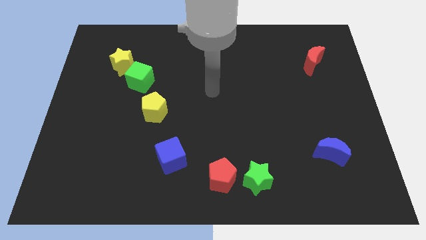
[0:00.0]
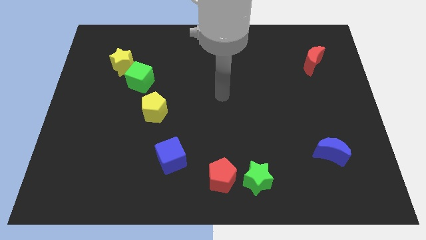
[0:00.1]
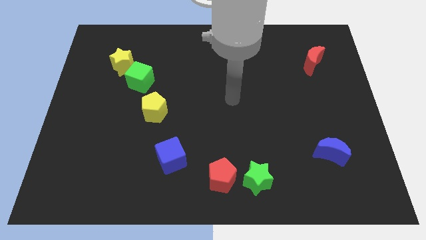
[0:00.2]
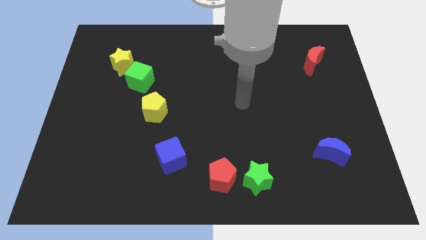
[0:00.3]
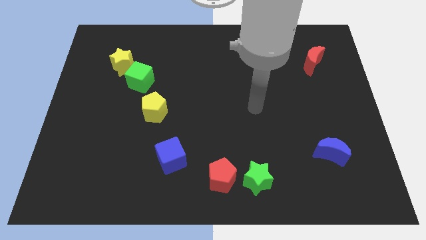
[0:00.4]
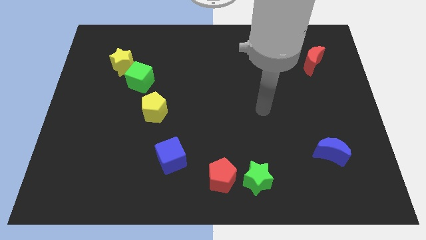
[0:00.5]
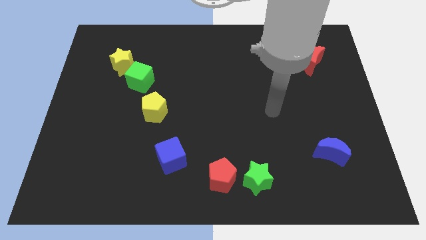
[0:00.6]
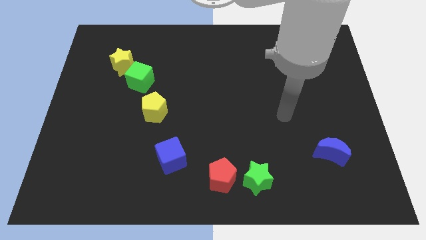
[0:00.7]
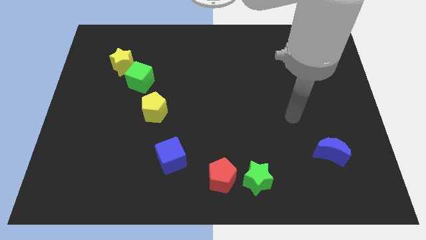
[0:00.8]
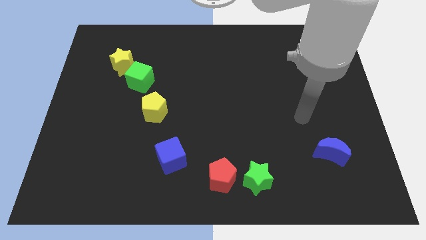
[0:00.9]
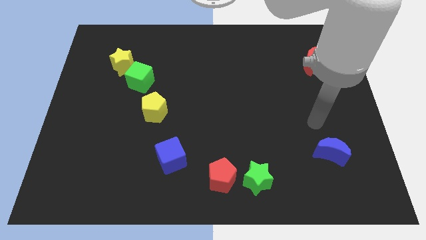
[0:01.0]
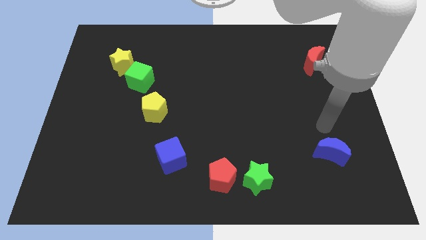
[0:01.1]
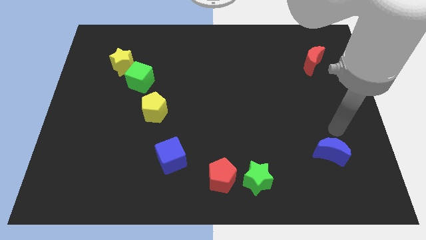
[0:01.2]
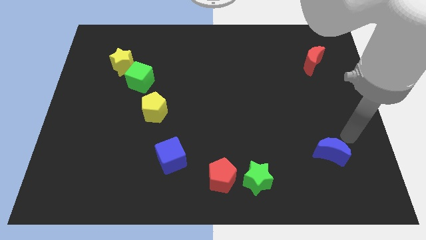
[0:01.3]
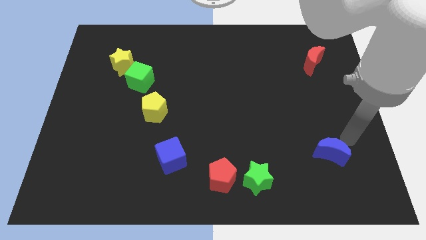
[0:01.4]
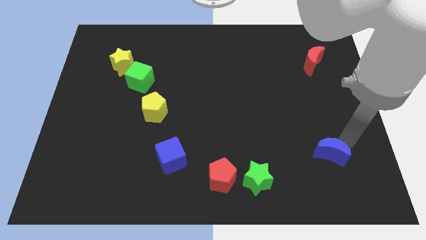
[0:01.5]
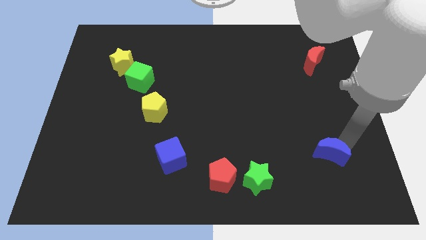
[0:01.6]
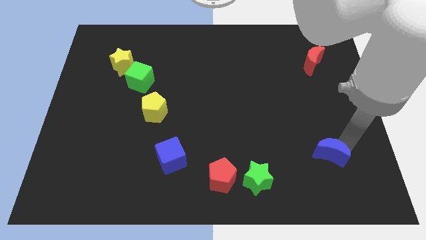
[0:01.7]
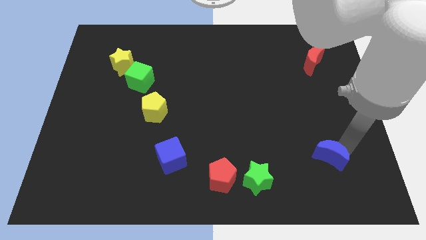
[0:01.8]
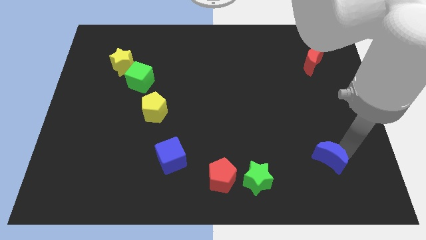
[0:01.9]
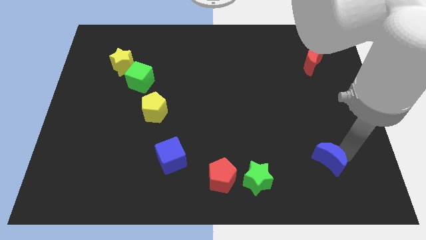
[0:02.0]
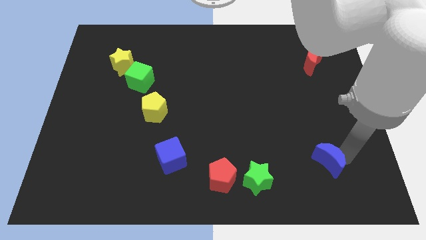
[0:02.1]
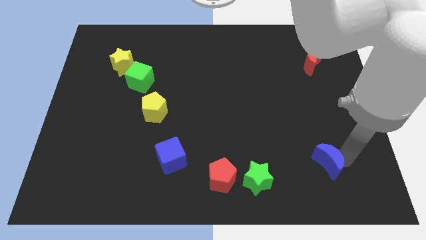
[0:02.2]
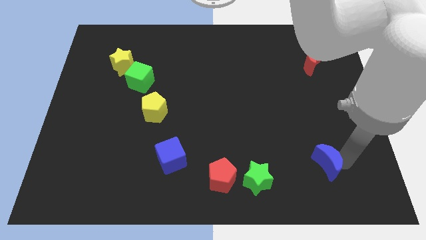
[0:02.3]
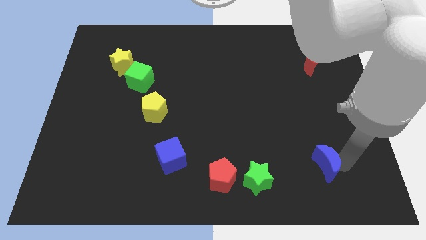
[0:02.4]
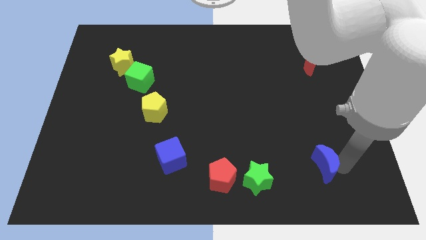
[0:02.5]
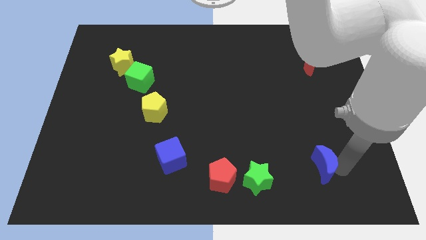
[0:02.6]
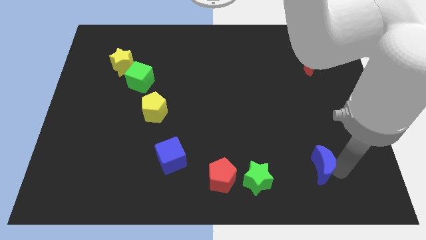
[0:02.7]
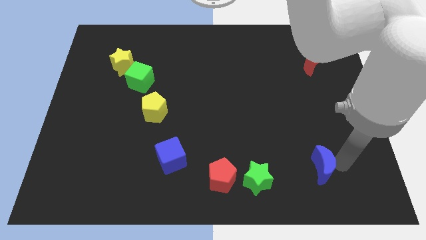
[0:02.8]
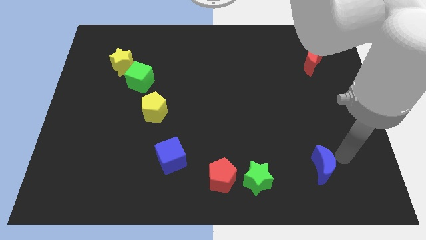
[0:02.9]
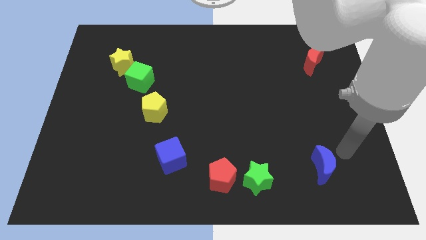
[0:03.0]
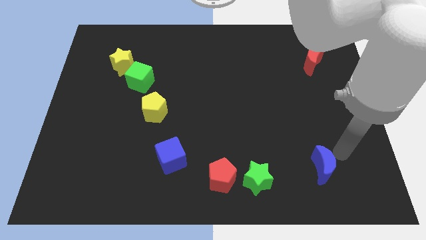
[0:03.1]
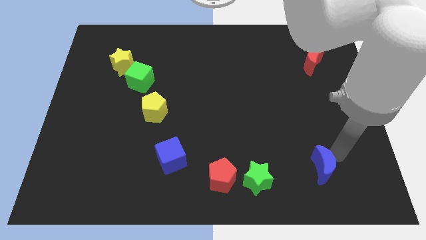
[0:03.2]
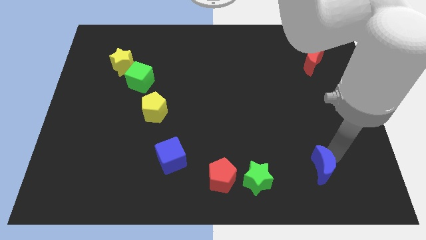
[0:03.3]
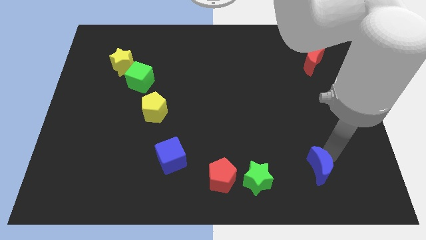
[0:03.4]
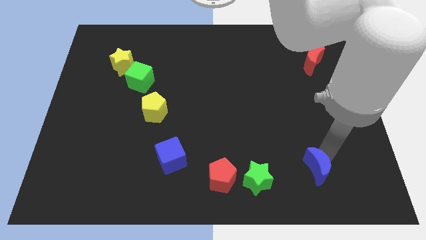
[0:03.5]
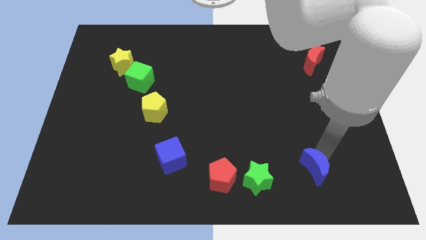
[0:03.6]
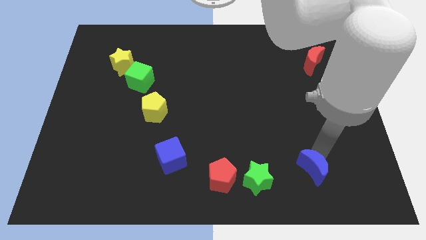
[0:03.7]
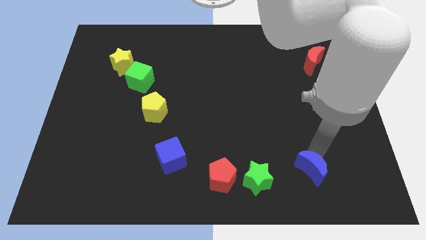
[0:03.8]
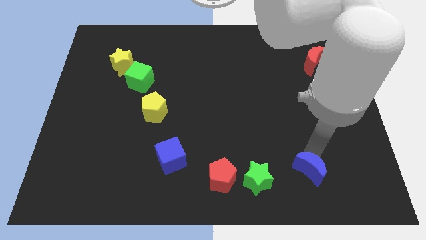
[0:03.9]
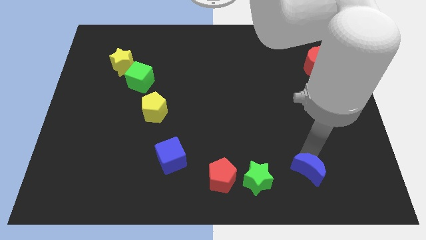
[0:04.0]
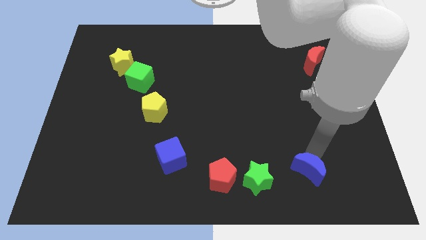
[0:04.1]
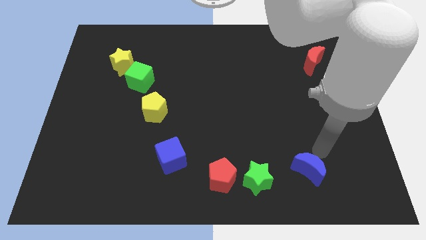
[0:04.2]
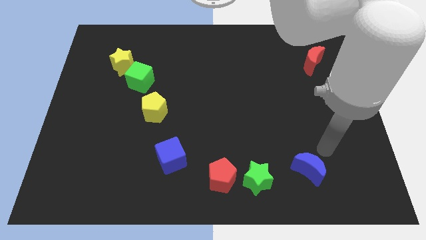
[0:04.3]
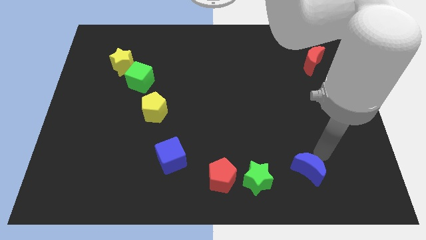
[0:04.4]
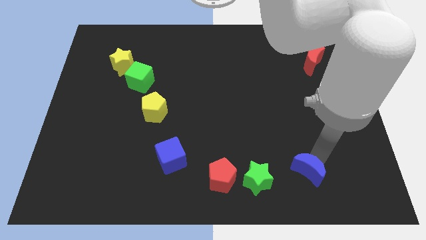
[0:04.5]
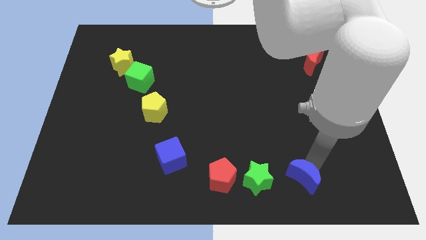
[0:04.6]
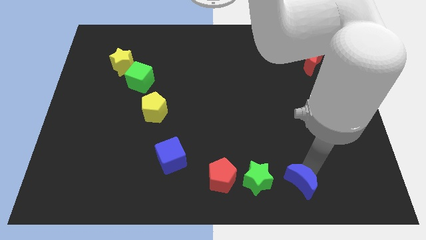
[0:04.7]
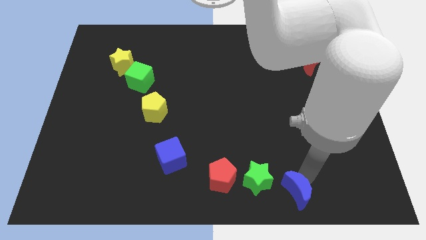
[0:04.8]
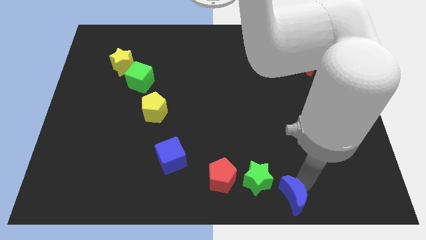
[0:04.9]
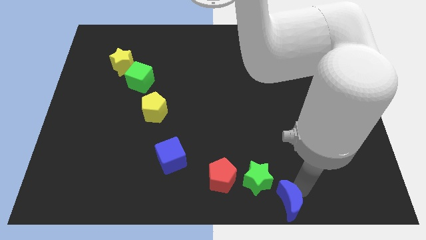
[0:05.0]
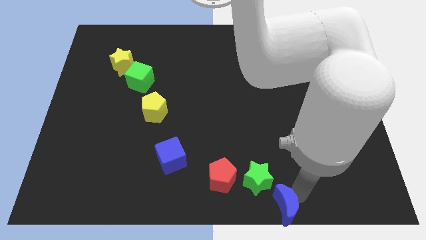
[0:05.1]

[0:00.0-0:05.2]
move the blue moon to the bottom side

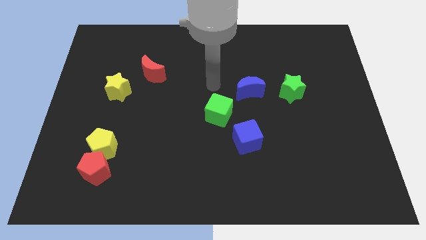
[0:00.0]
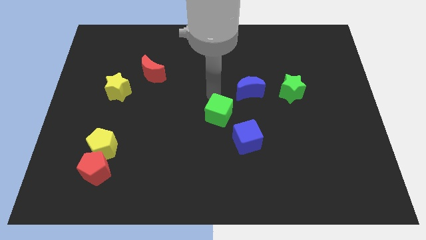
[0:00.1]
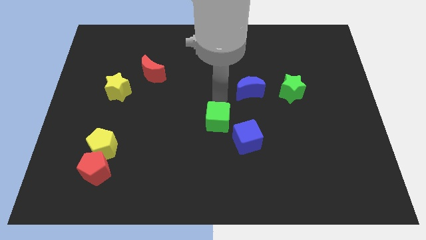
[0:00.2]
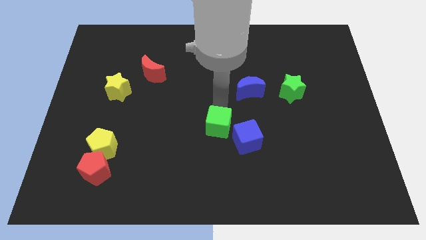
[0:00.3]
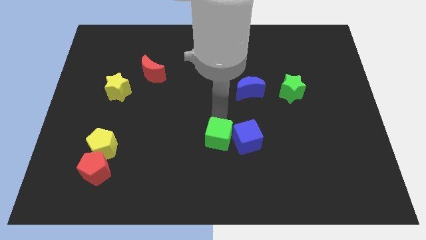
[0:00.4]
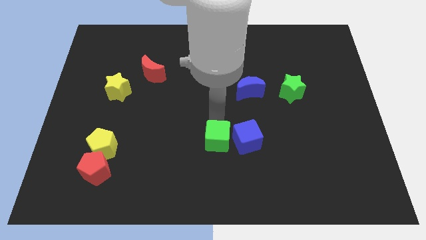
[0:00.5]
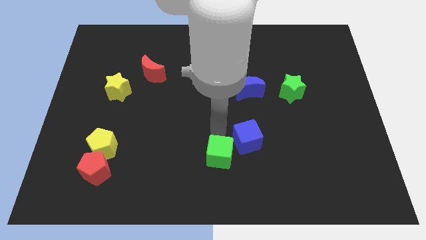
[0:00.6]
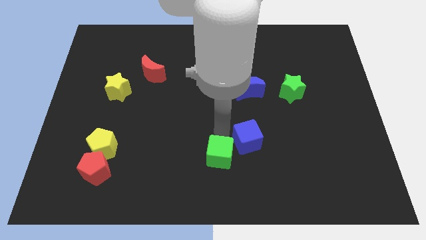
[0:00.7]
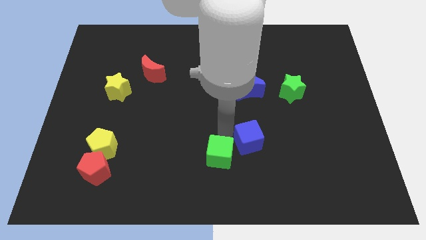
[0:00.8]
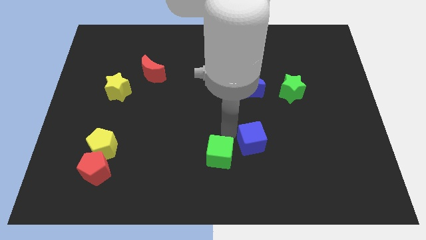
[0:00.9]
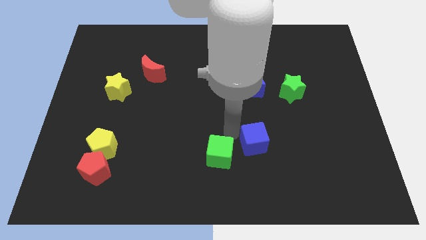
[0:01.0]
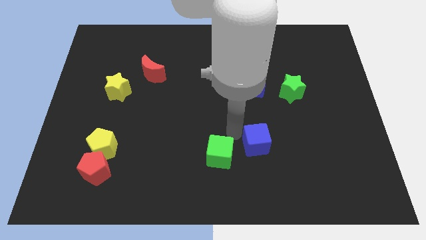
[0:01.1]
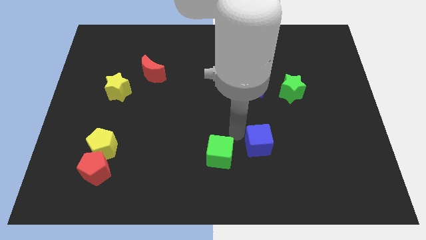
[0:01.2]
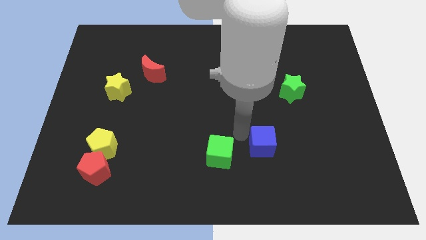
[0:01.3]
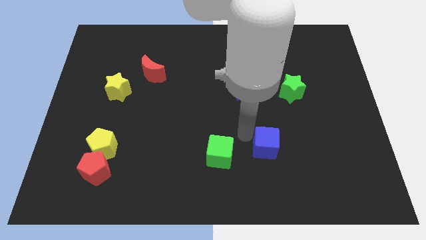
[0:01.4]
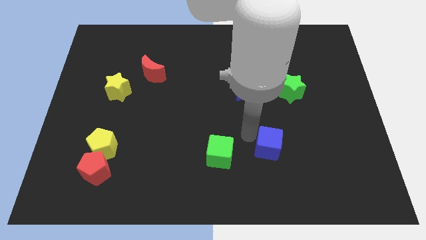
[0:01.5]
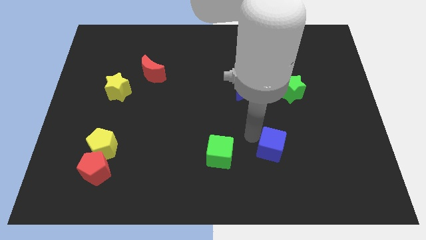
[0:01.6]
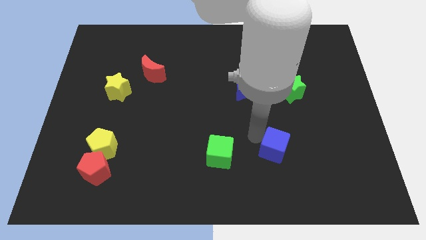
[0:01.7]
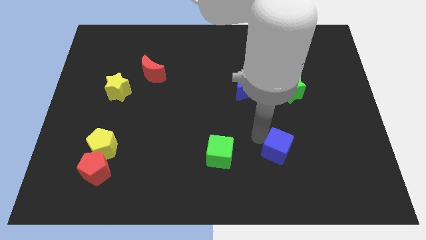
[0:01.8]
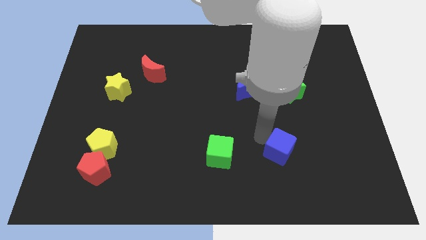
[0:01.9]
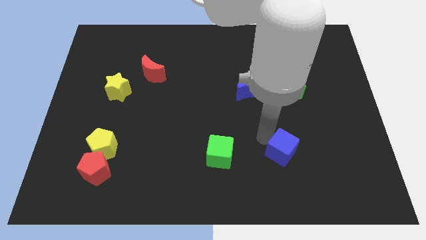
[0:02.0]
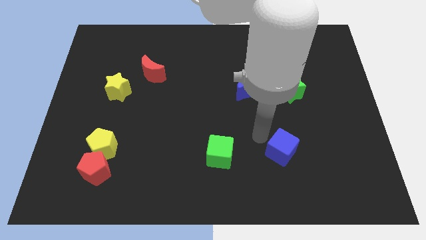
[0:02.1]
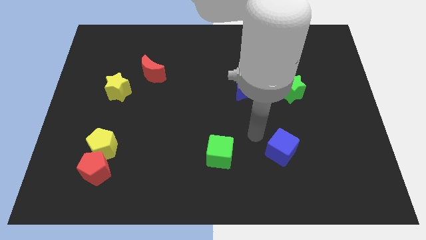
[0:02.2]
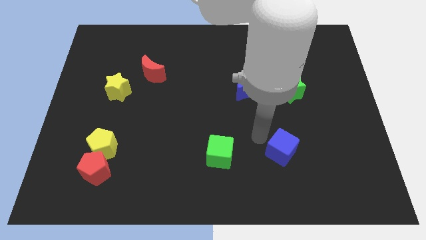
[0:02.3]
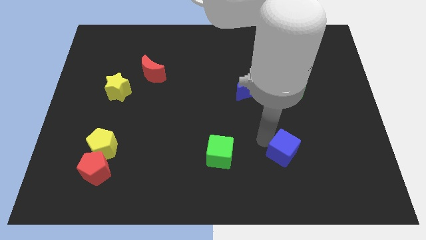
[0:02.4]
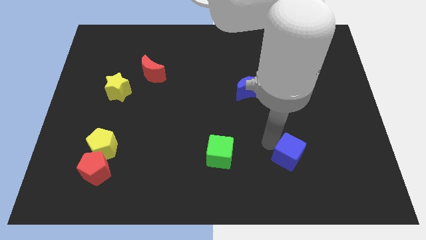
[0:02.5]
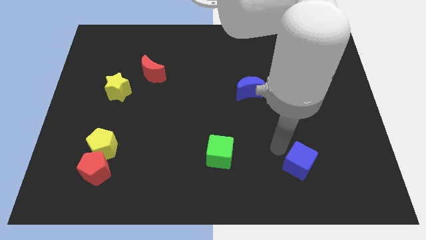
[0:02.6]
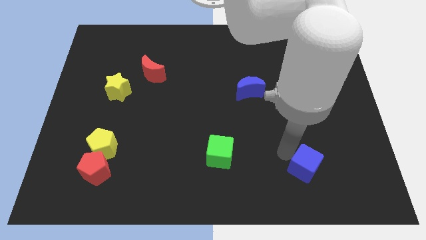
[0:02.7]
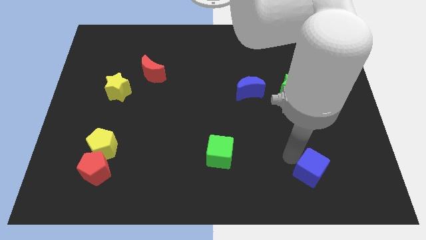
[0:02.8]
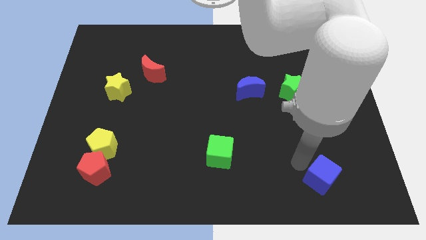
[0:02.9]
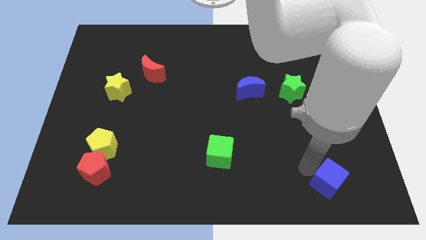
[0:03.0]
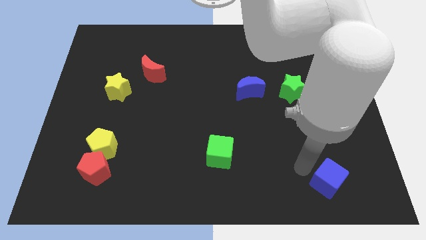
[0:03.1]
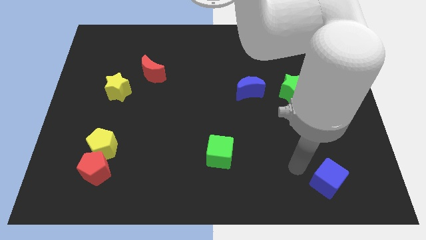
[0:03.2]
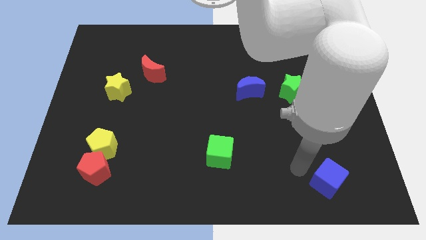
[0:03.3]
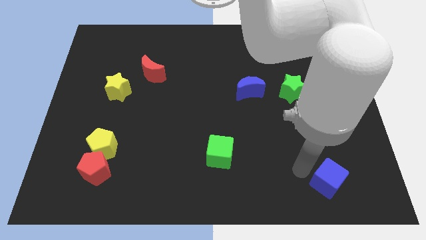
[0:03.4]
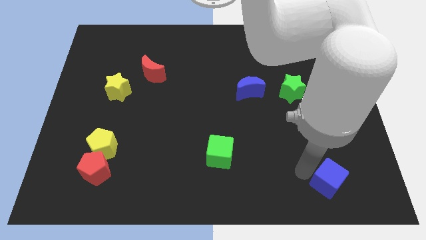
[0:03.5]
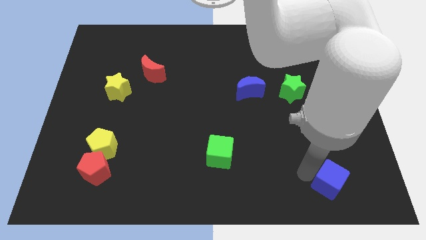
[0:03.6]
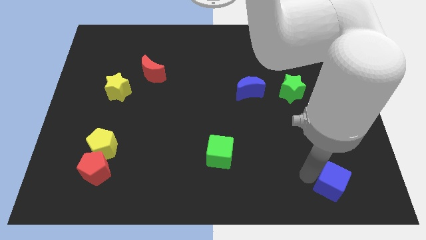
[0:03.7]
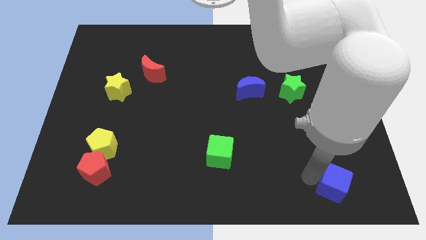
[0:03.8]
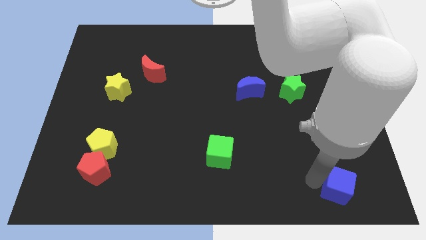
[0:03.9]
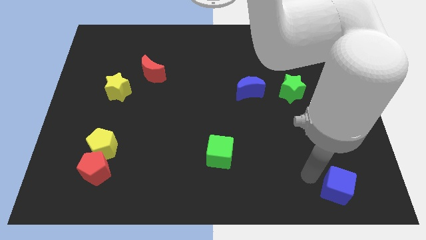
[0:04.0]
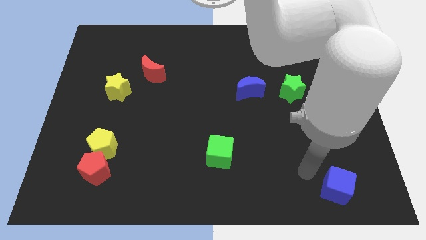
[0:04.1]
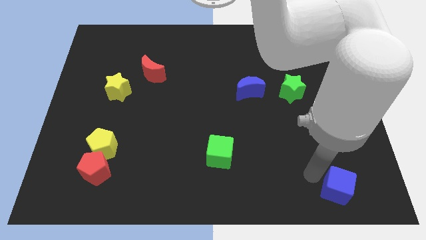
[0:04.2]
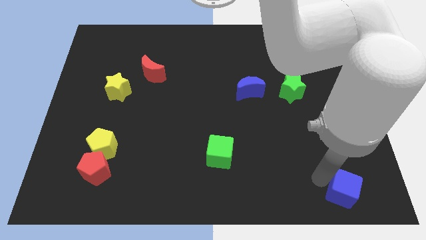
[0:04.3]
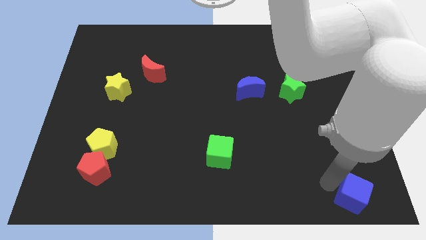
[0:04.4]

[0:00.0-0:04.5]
put the blue cube to the bottom right corner
